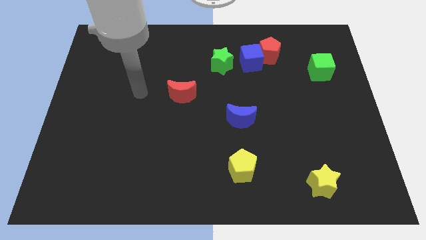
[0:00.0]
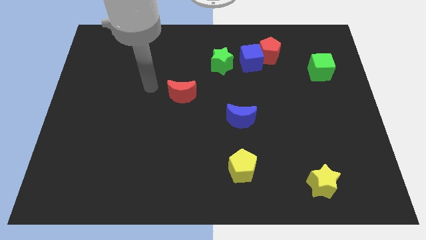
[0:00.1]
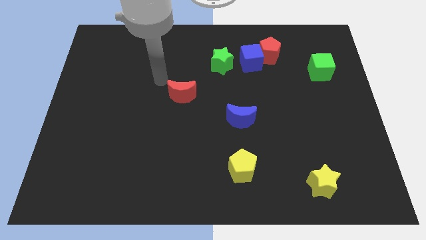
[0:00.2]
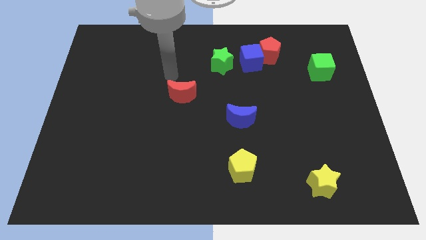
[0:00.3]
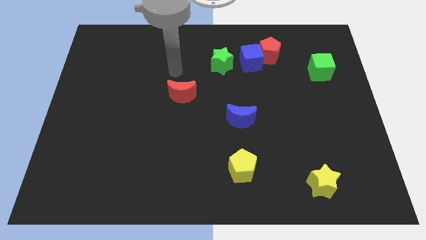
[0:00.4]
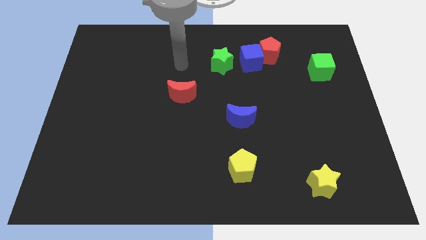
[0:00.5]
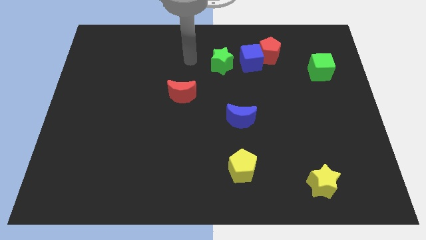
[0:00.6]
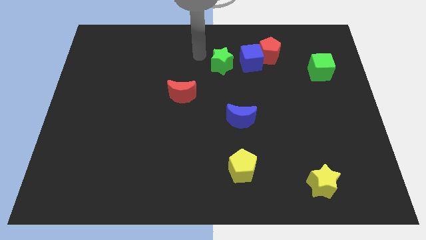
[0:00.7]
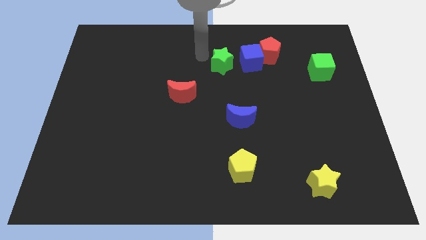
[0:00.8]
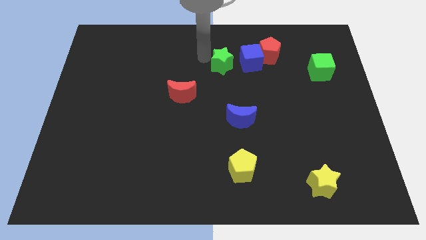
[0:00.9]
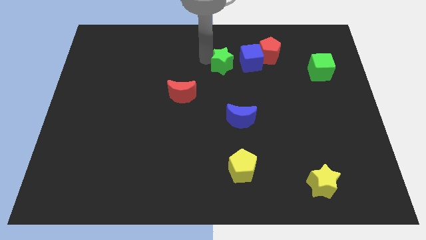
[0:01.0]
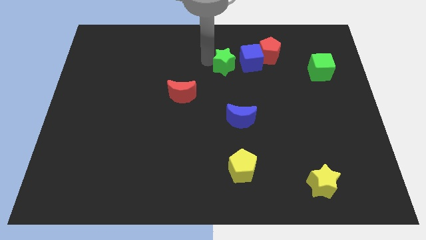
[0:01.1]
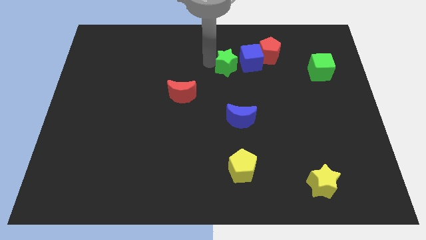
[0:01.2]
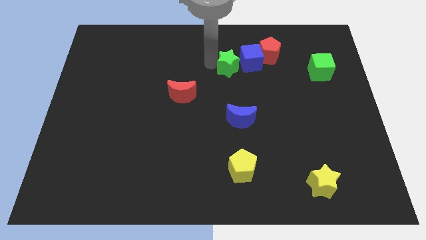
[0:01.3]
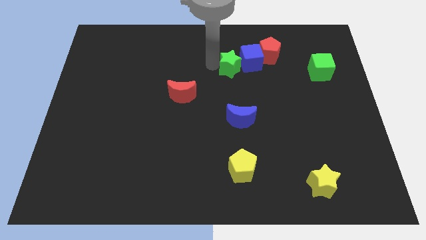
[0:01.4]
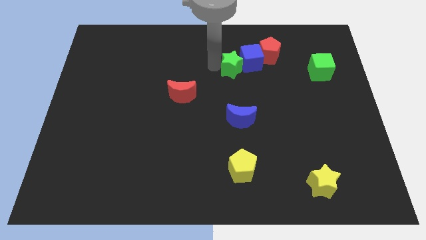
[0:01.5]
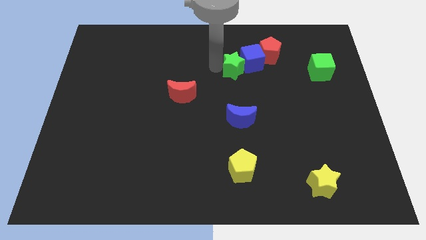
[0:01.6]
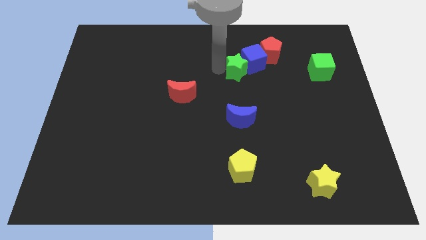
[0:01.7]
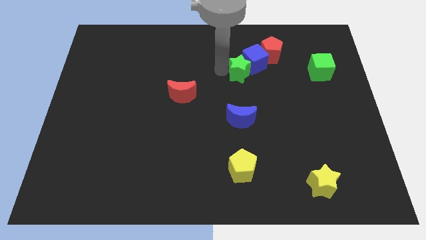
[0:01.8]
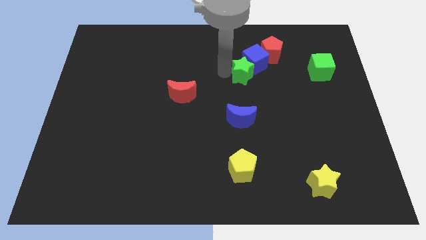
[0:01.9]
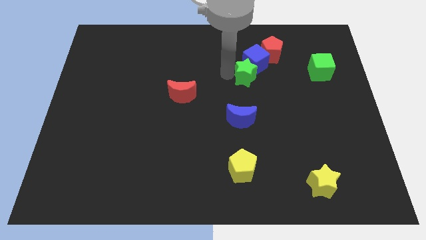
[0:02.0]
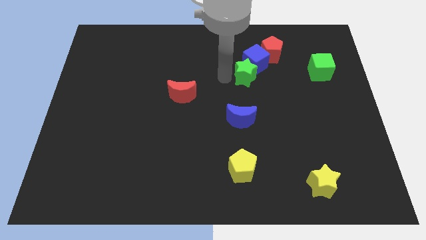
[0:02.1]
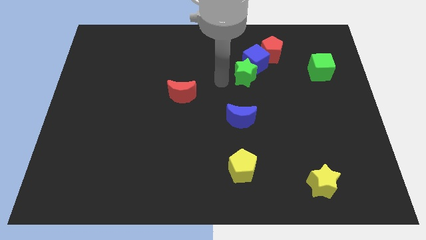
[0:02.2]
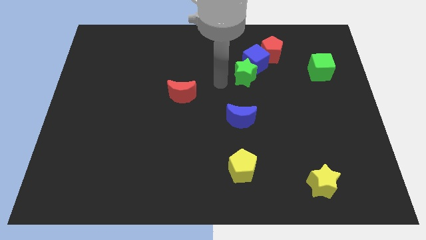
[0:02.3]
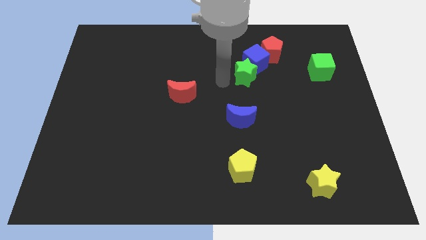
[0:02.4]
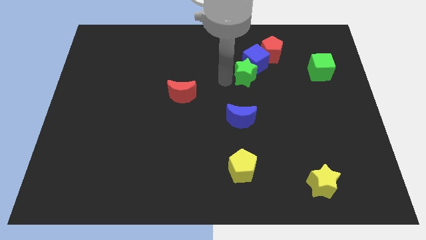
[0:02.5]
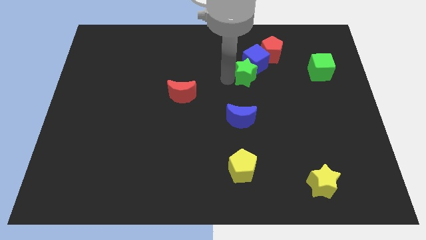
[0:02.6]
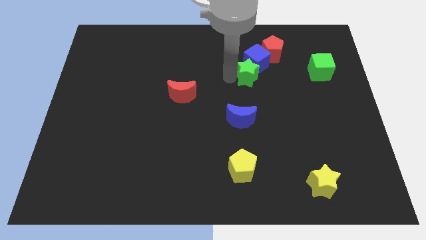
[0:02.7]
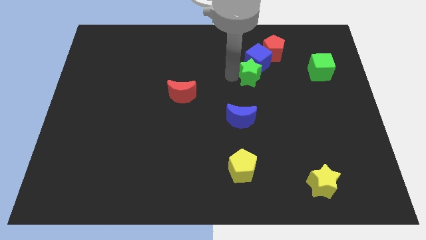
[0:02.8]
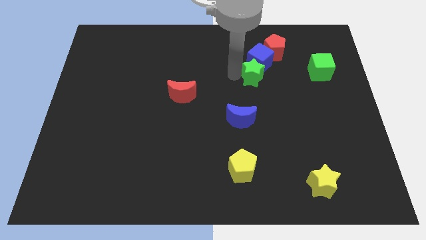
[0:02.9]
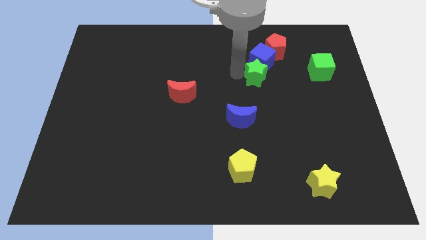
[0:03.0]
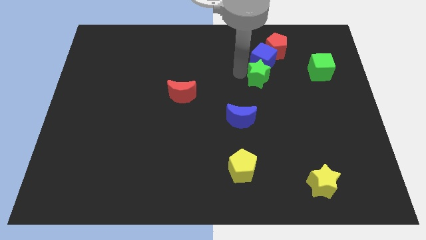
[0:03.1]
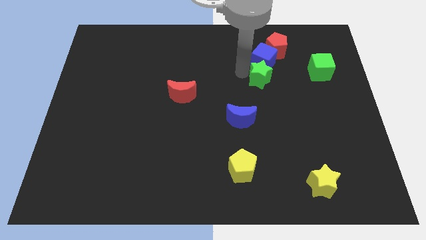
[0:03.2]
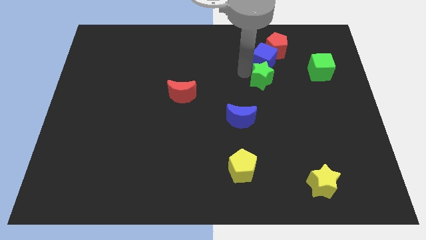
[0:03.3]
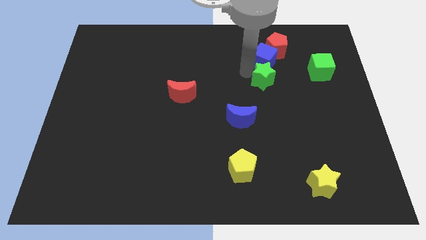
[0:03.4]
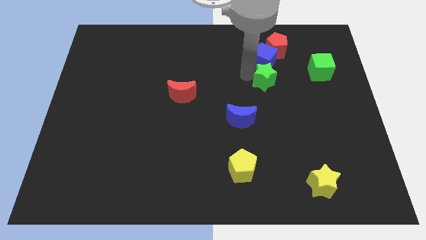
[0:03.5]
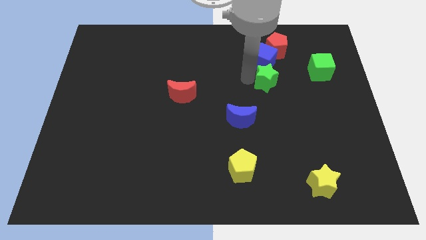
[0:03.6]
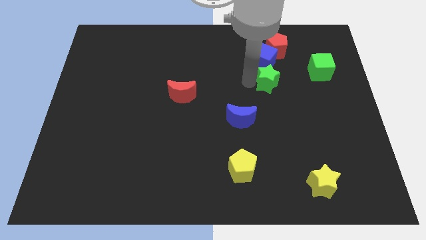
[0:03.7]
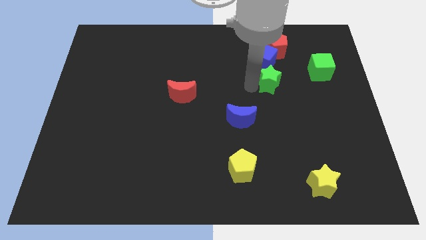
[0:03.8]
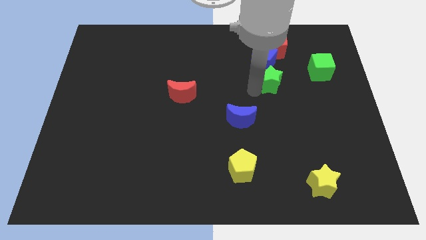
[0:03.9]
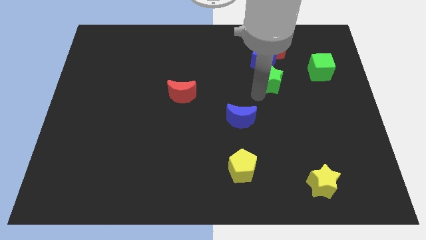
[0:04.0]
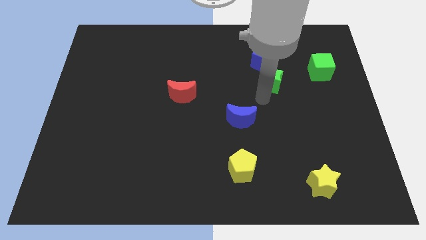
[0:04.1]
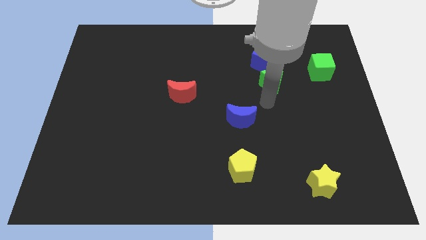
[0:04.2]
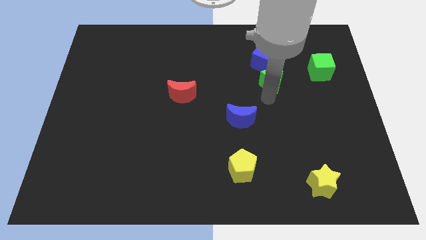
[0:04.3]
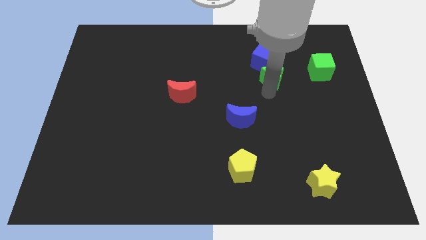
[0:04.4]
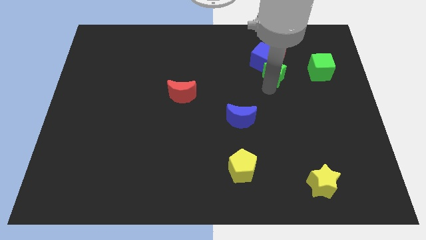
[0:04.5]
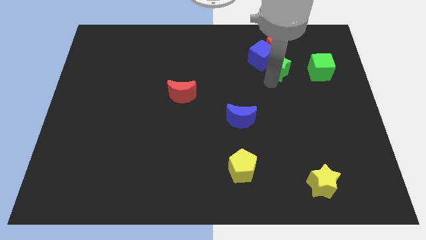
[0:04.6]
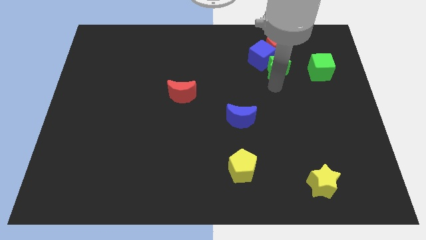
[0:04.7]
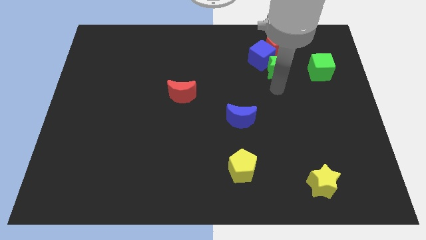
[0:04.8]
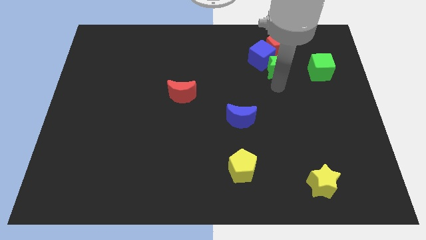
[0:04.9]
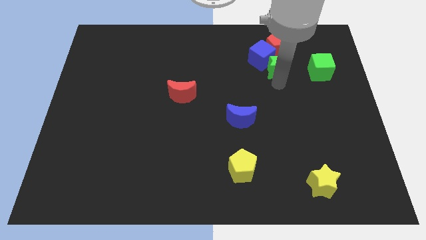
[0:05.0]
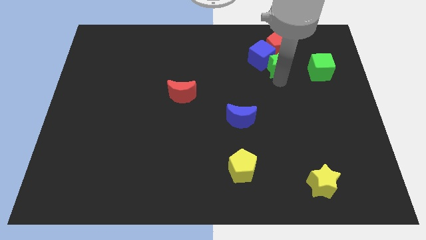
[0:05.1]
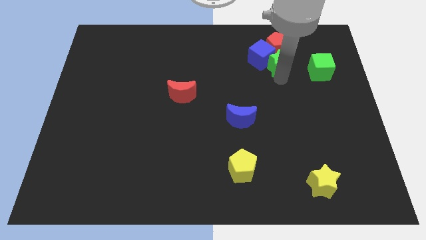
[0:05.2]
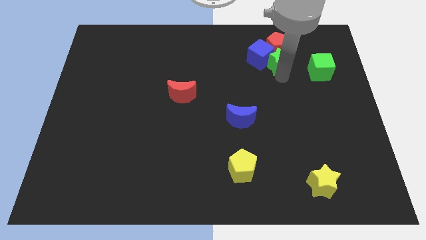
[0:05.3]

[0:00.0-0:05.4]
push the green star to the red pentagon
